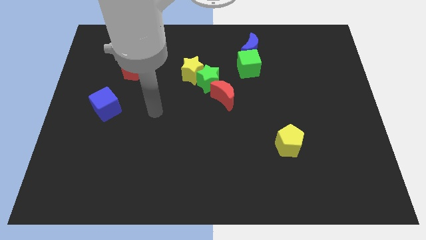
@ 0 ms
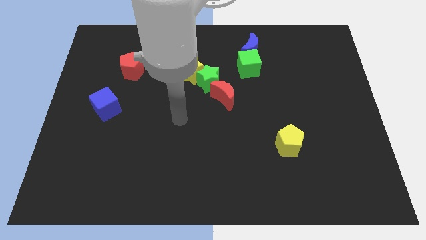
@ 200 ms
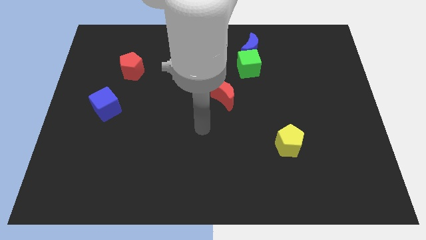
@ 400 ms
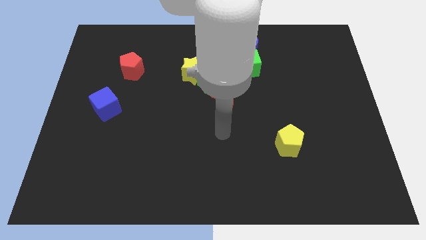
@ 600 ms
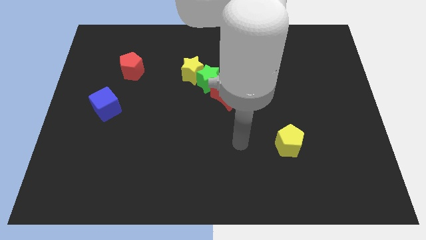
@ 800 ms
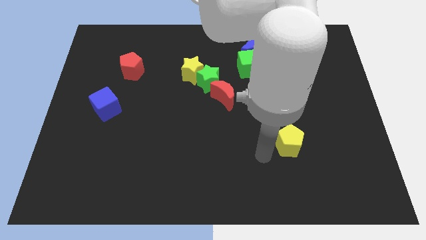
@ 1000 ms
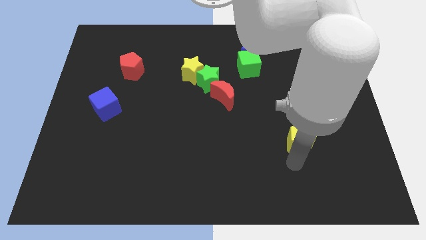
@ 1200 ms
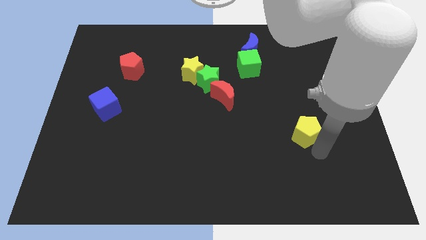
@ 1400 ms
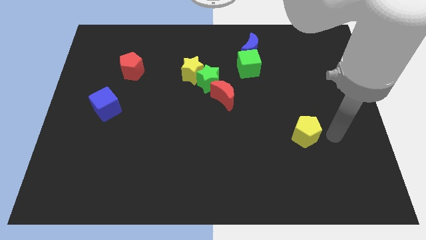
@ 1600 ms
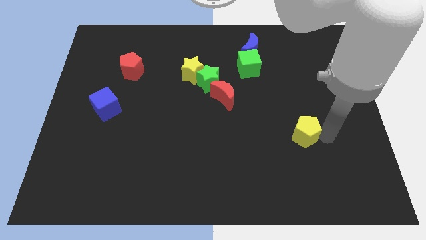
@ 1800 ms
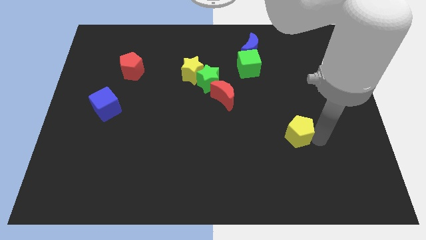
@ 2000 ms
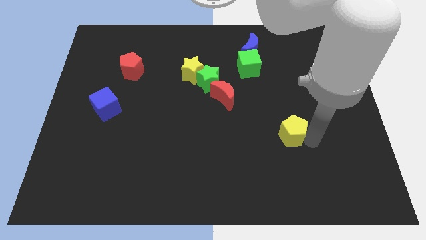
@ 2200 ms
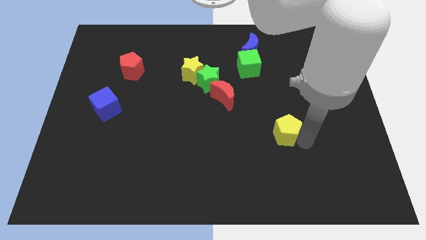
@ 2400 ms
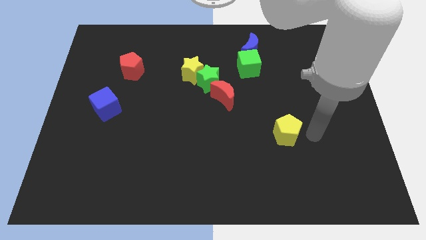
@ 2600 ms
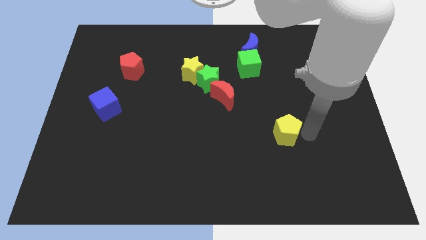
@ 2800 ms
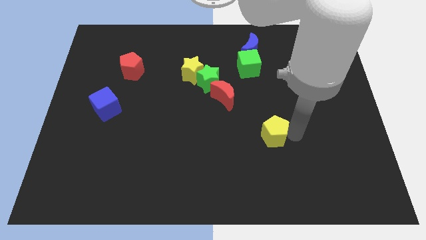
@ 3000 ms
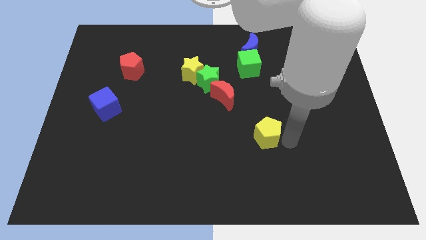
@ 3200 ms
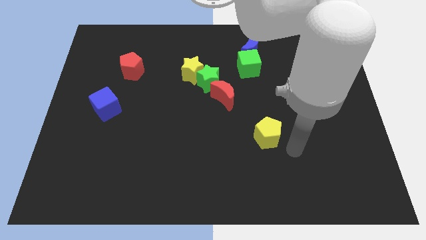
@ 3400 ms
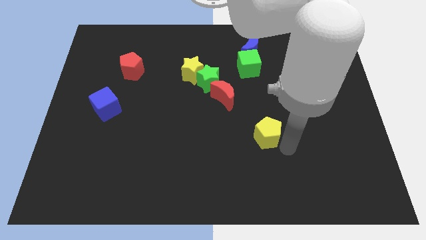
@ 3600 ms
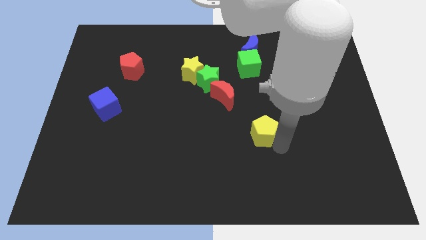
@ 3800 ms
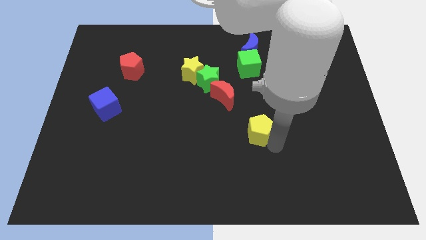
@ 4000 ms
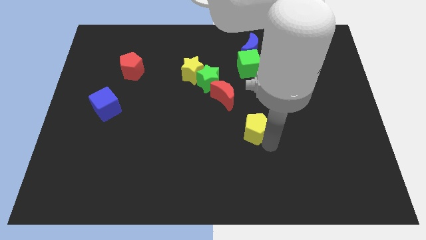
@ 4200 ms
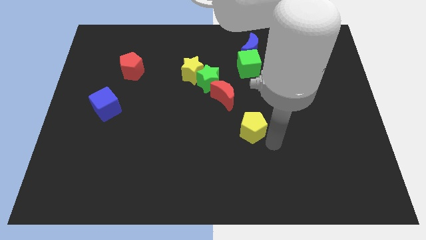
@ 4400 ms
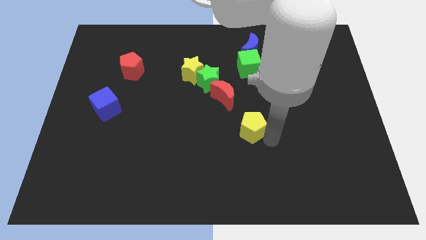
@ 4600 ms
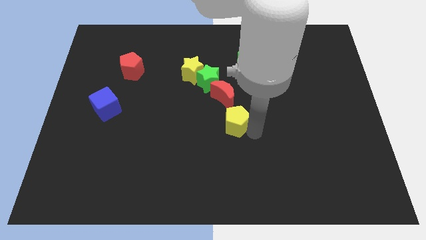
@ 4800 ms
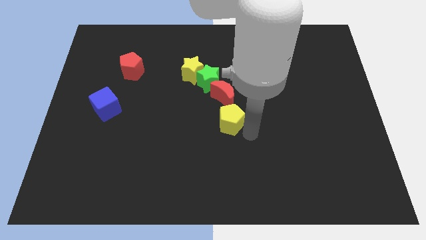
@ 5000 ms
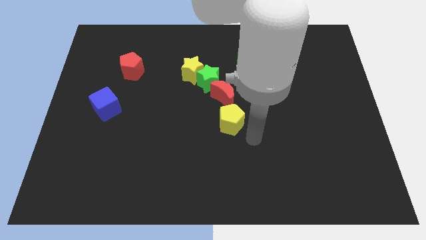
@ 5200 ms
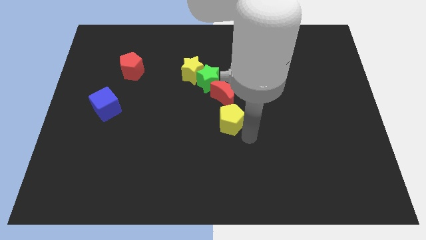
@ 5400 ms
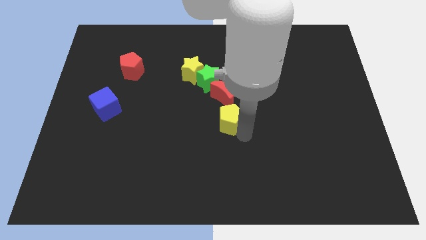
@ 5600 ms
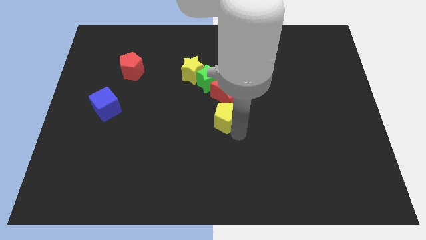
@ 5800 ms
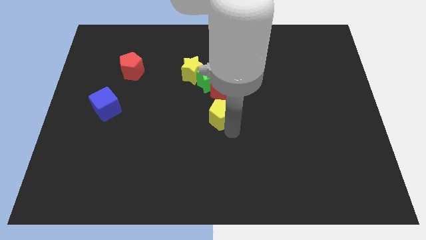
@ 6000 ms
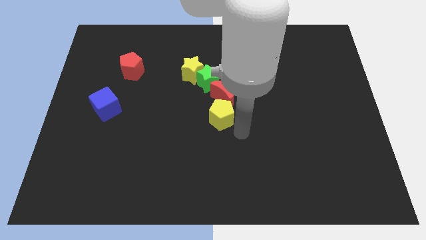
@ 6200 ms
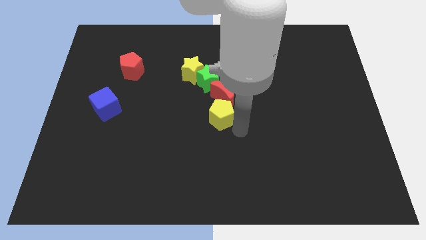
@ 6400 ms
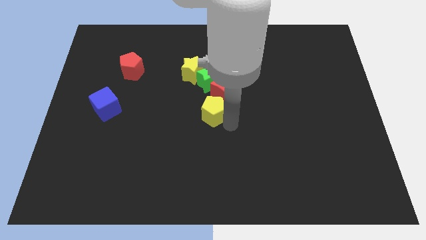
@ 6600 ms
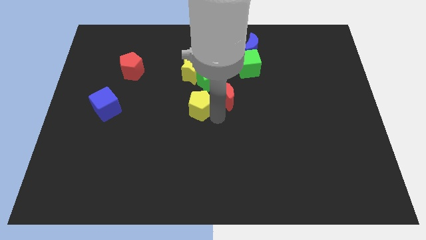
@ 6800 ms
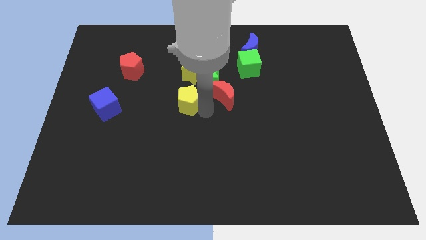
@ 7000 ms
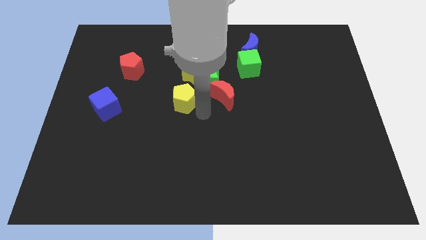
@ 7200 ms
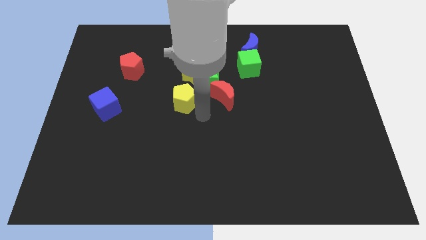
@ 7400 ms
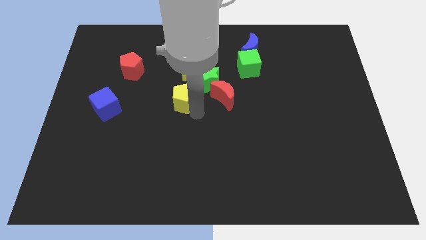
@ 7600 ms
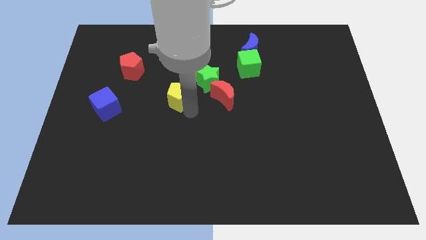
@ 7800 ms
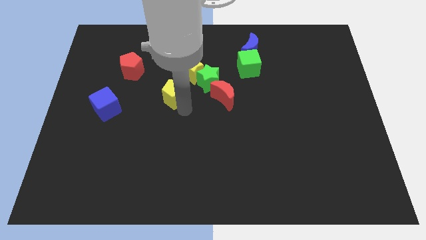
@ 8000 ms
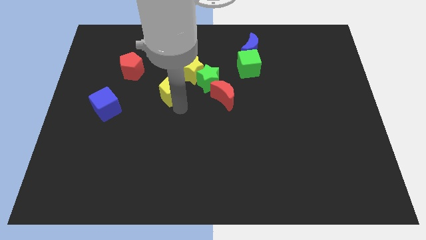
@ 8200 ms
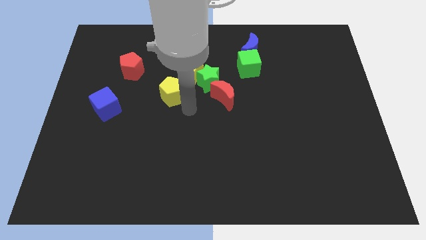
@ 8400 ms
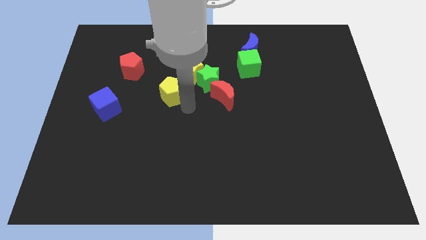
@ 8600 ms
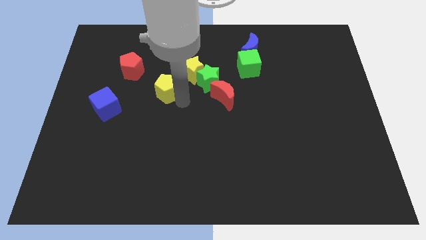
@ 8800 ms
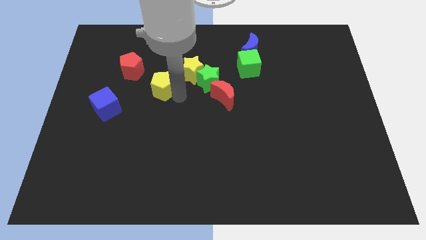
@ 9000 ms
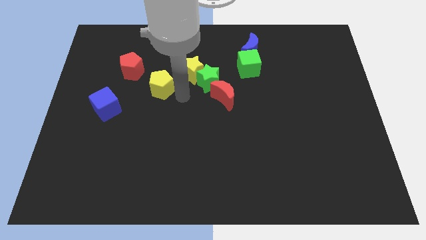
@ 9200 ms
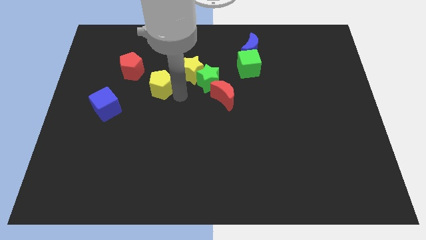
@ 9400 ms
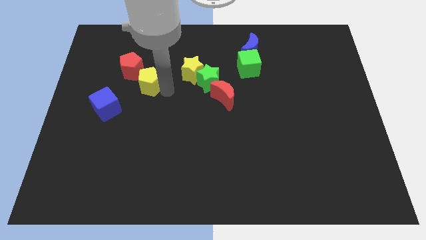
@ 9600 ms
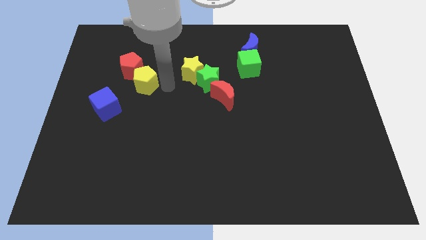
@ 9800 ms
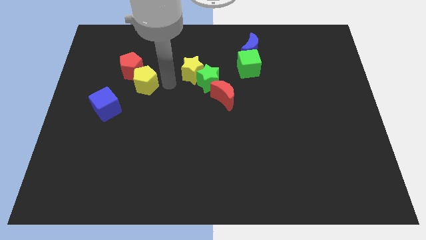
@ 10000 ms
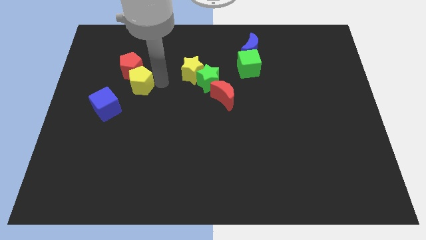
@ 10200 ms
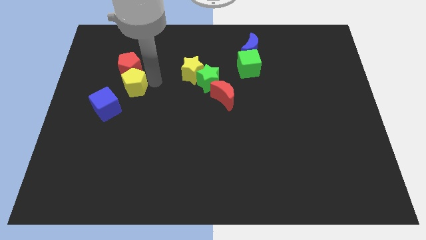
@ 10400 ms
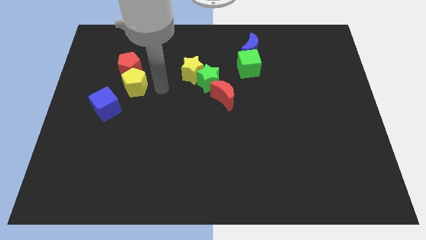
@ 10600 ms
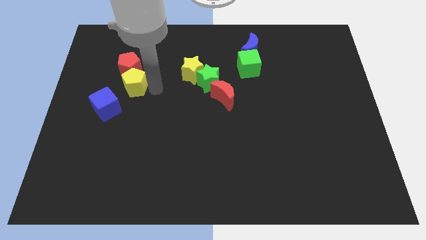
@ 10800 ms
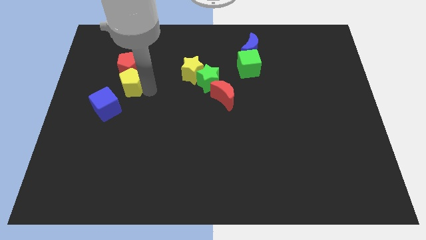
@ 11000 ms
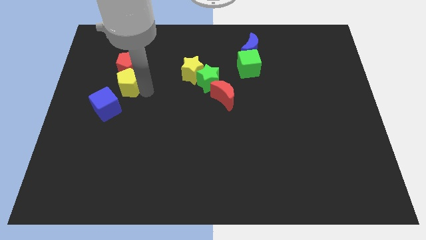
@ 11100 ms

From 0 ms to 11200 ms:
put the yellow pentagon diagonally down and to the left of the red pentagon
